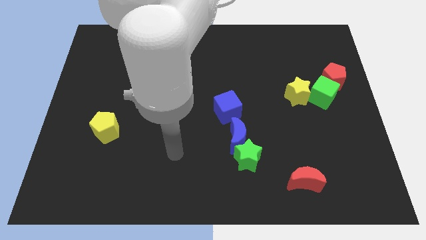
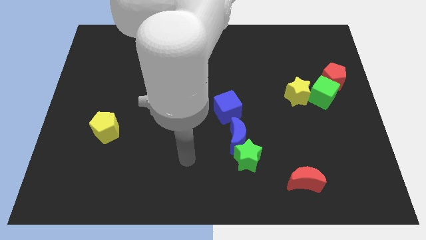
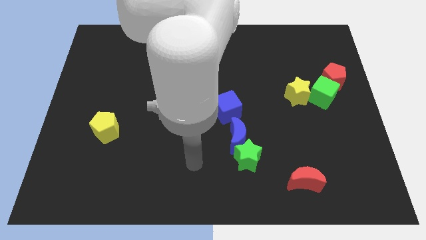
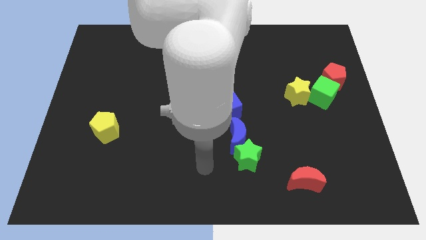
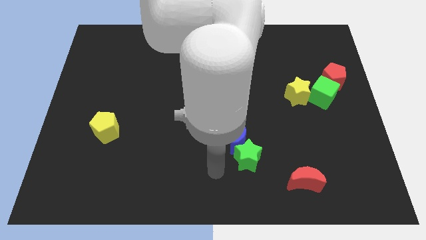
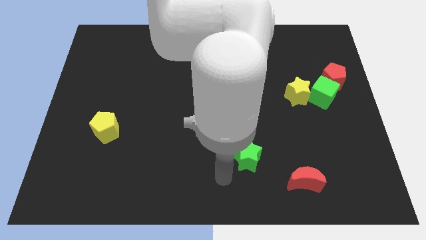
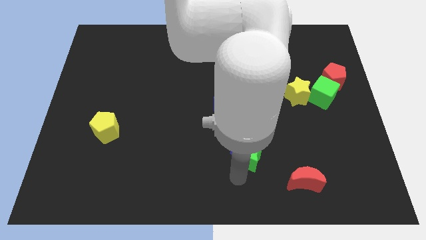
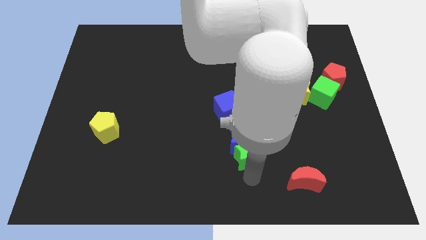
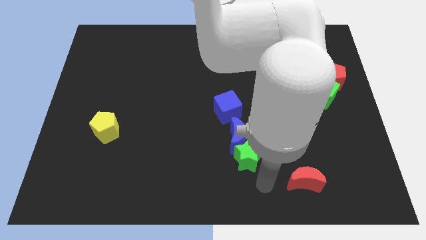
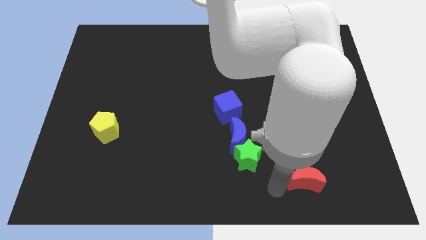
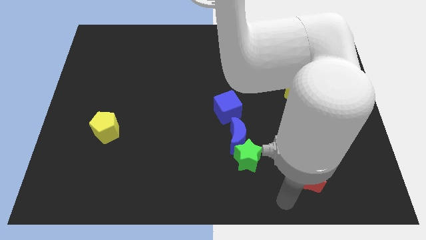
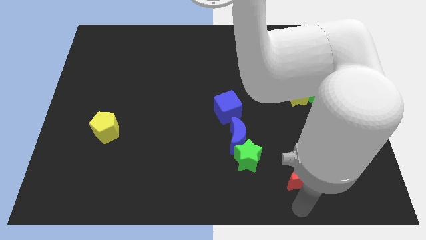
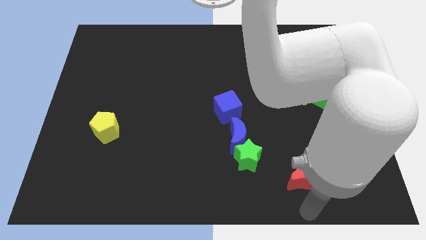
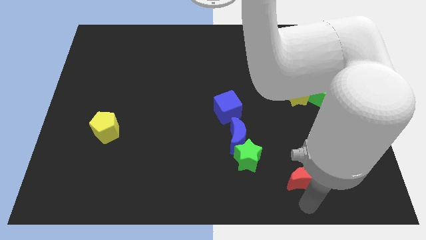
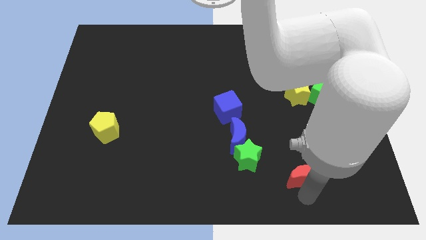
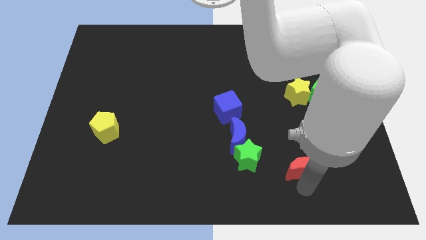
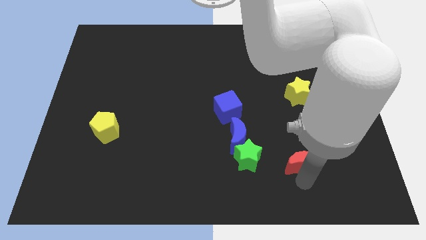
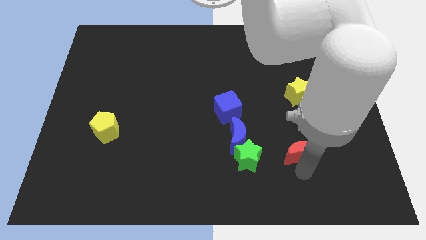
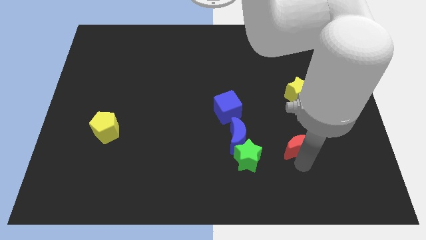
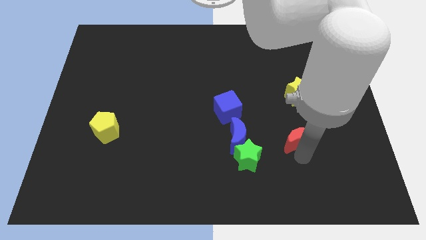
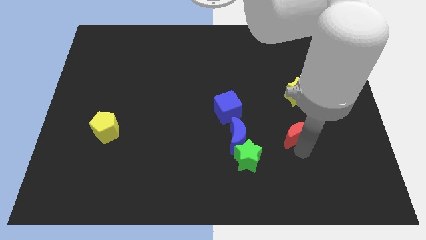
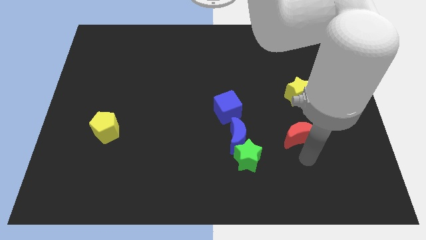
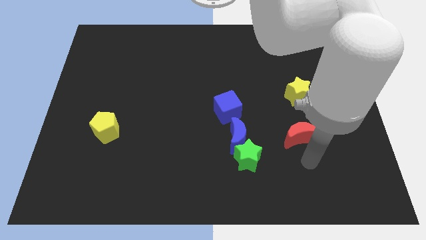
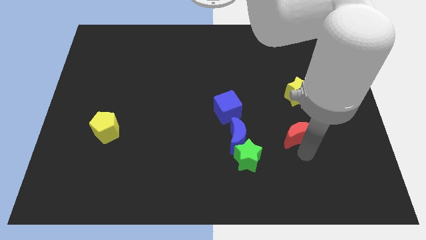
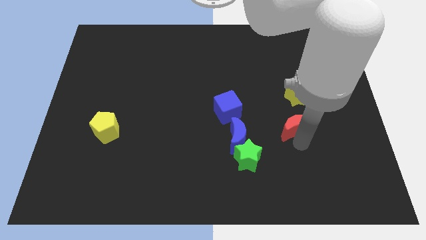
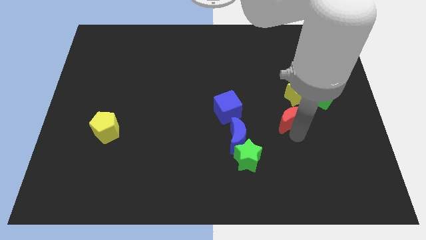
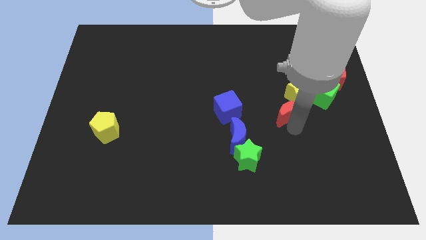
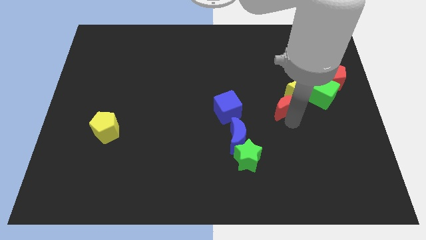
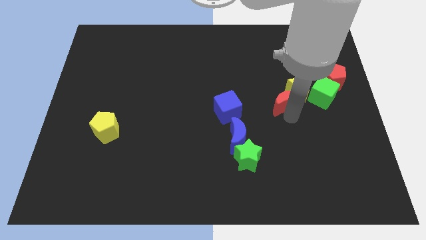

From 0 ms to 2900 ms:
move the red moon up

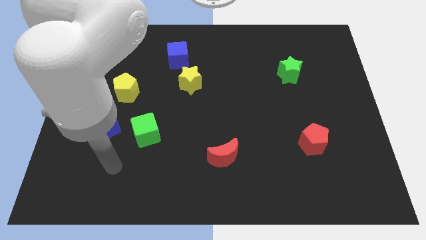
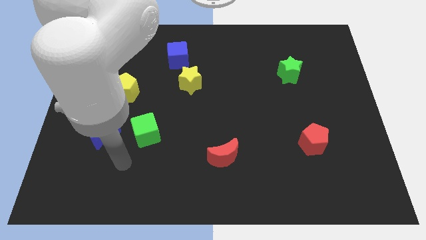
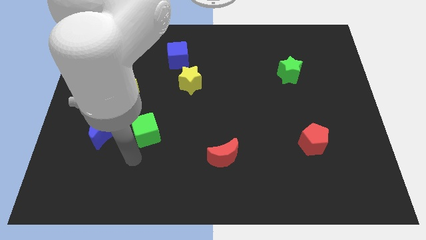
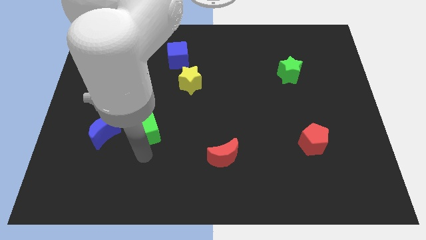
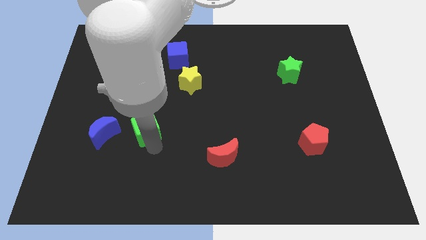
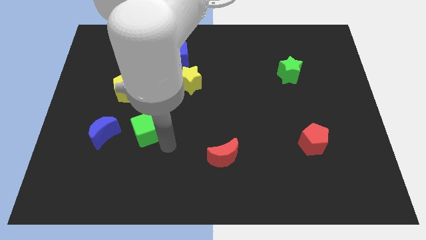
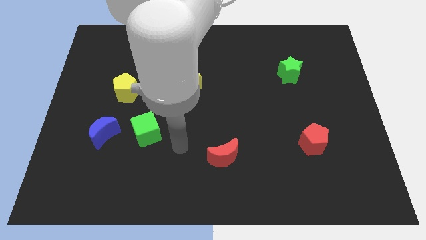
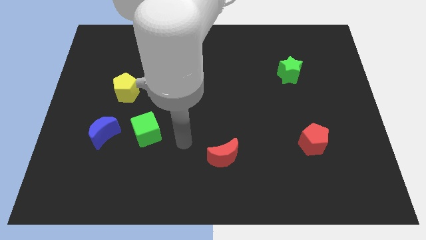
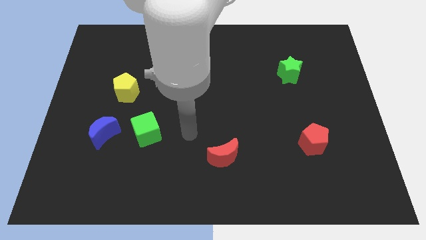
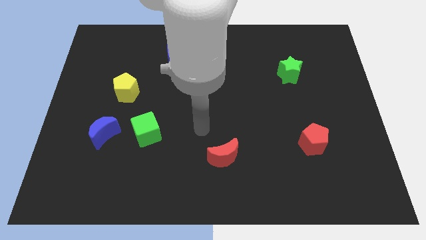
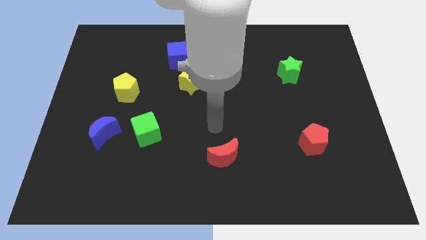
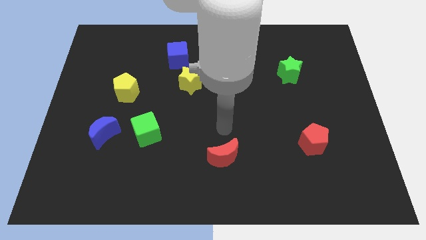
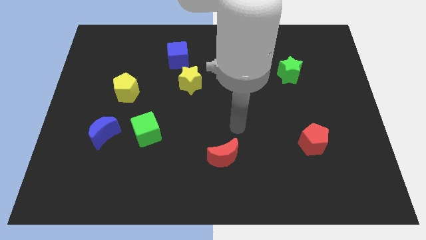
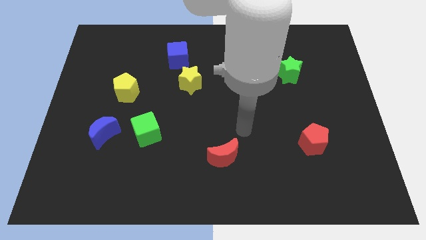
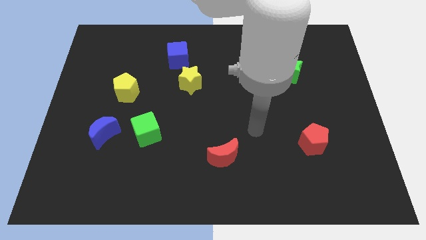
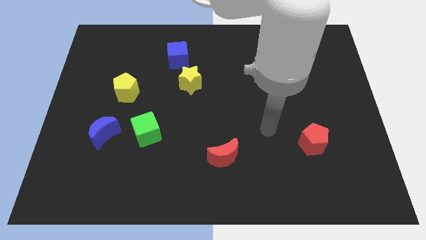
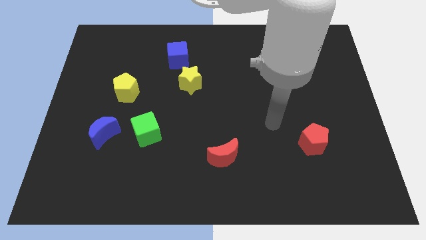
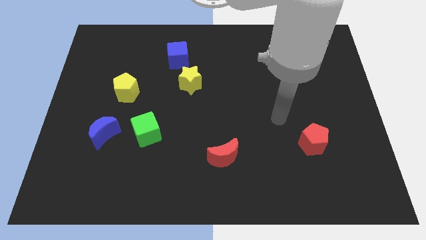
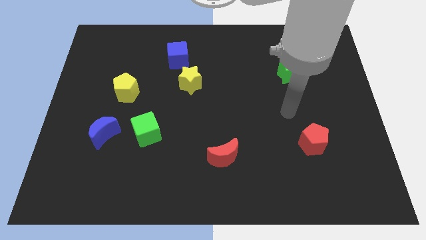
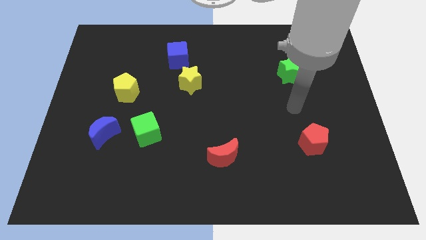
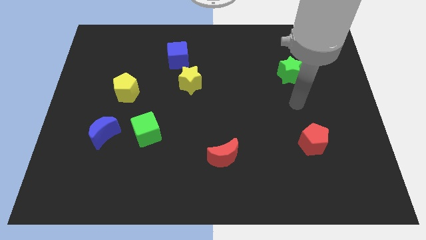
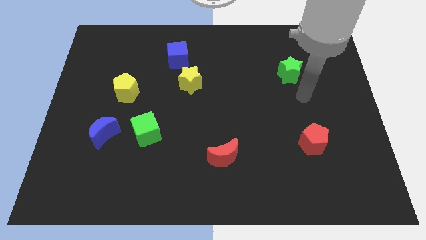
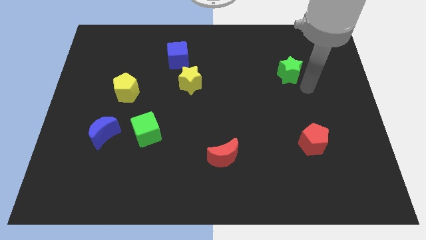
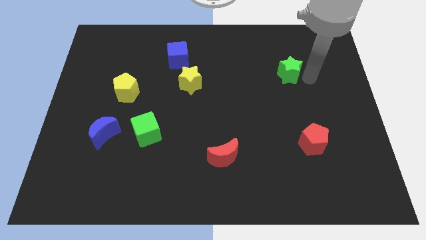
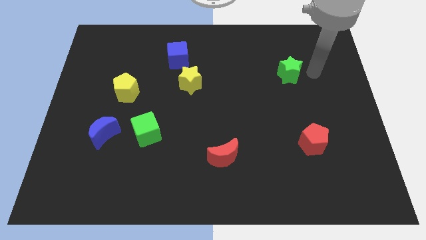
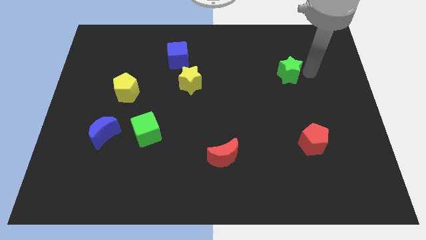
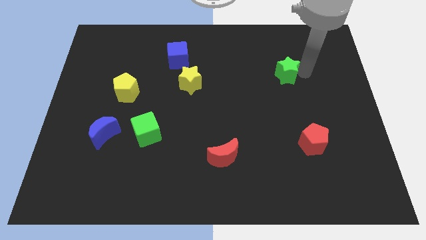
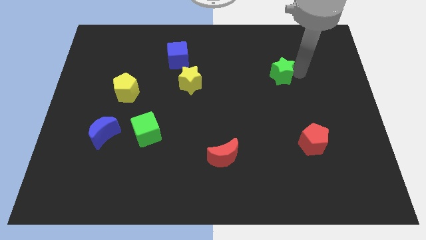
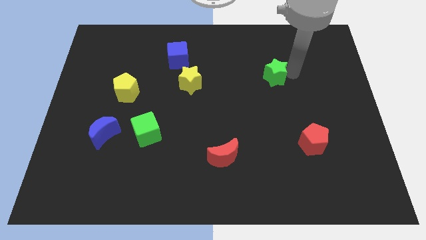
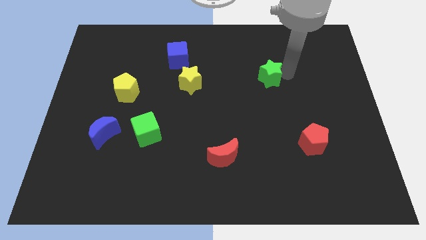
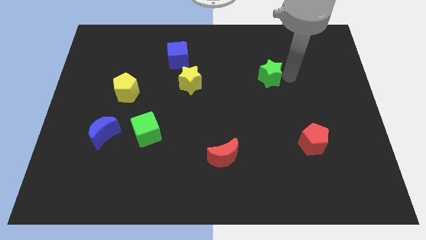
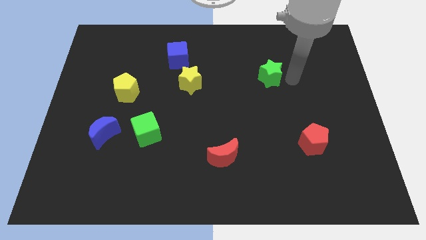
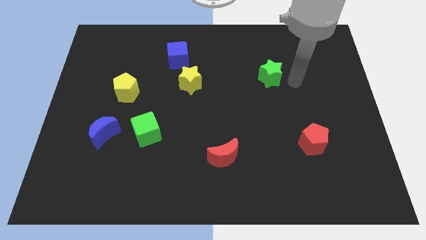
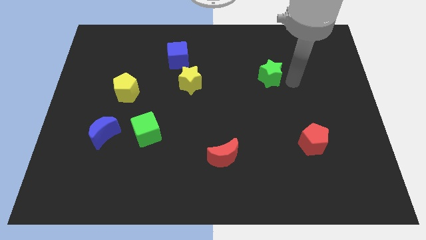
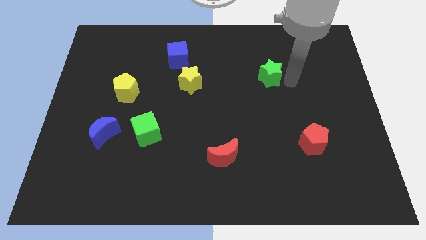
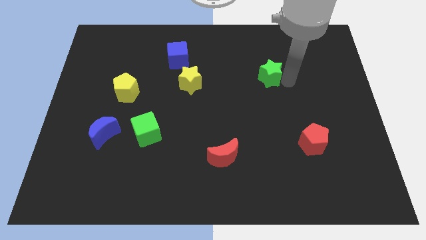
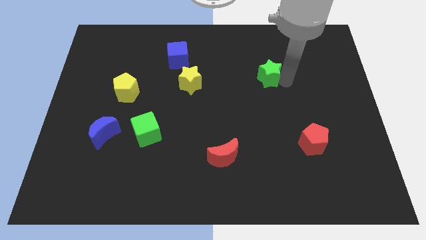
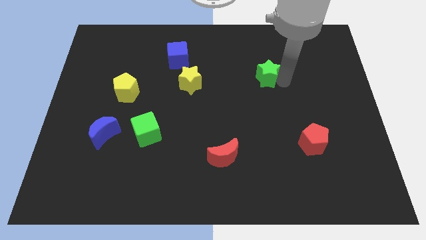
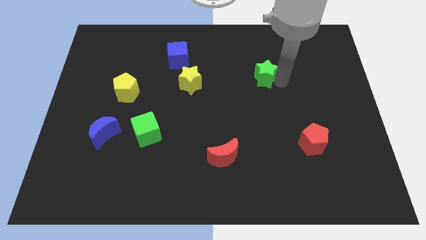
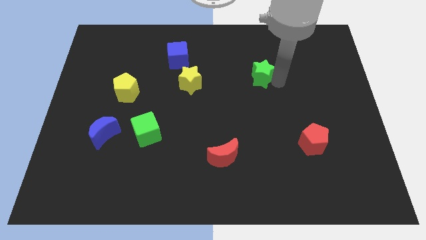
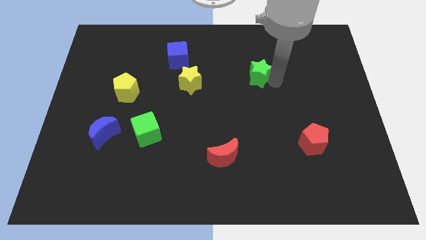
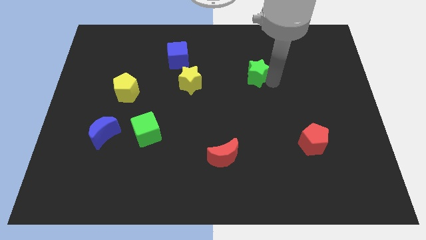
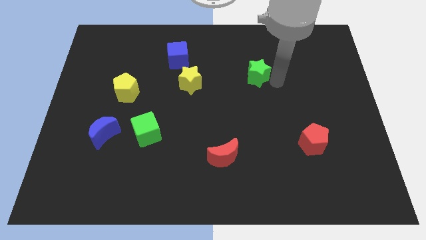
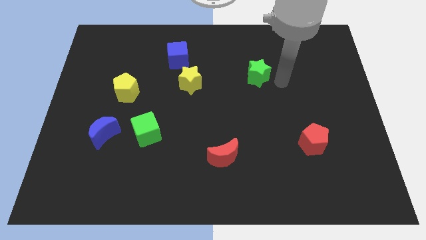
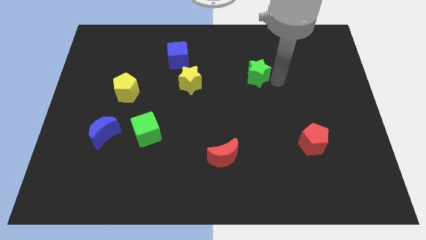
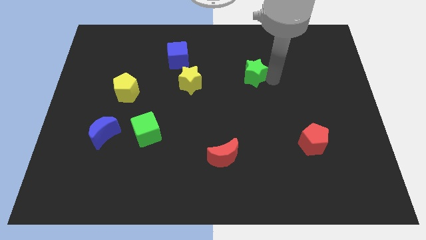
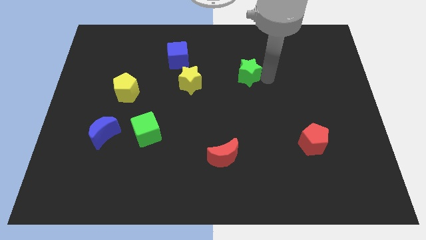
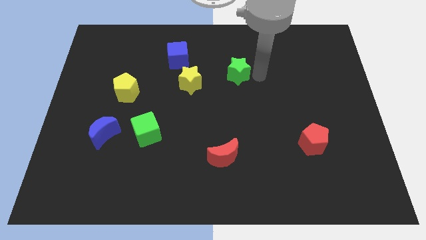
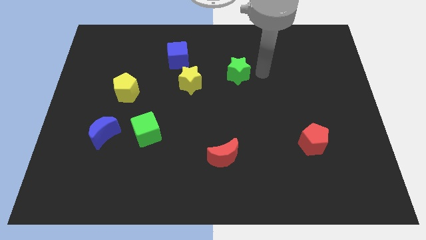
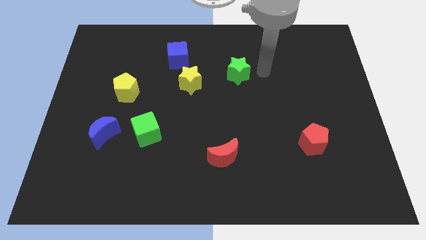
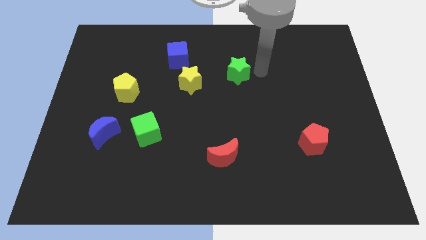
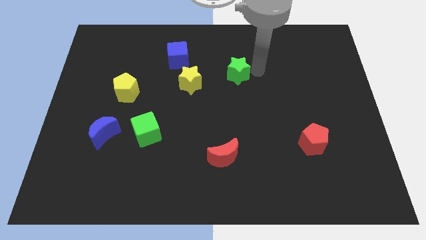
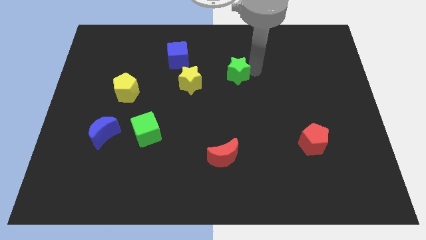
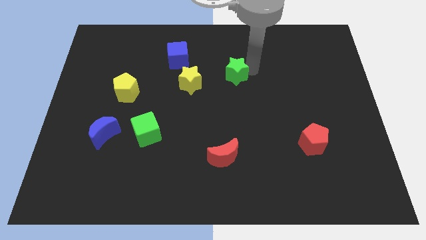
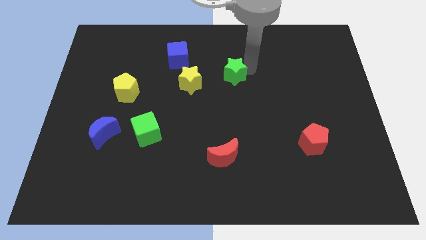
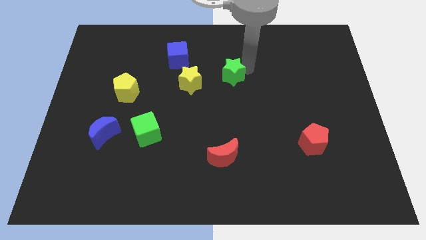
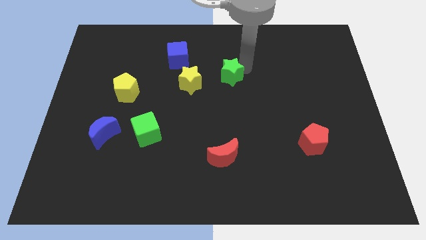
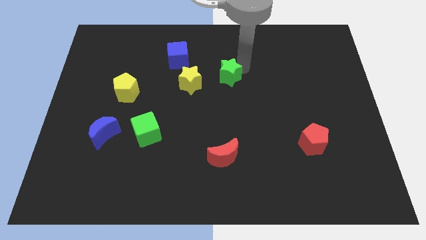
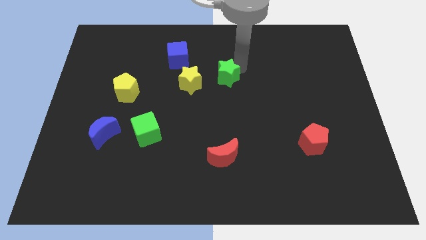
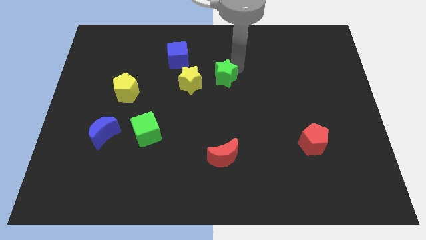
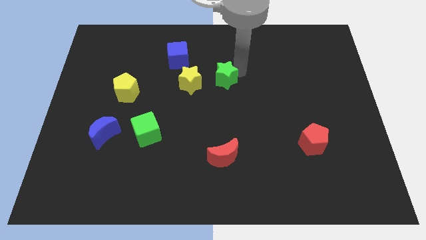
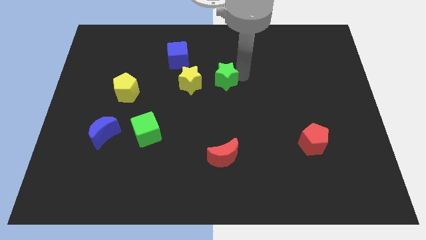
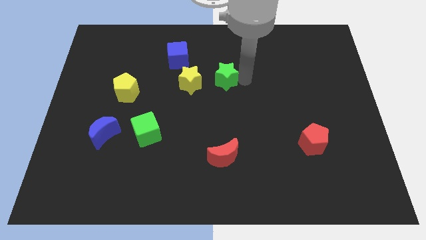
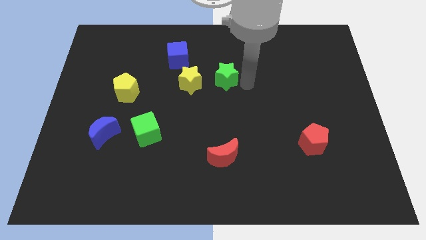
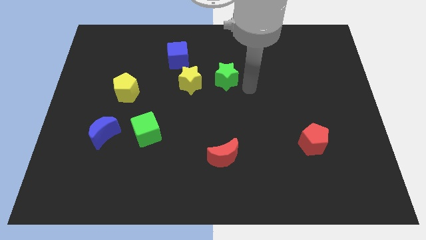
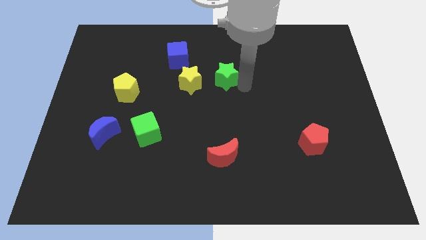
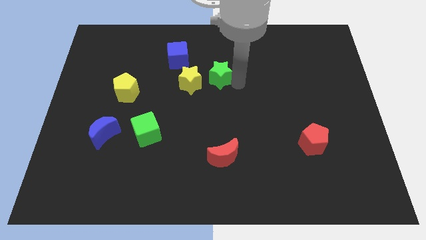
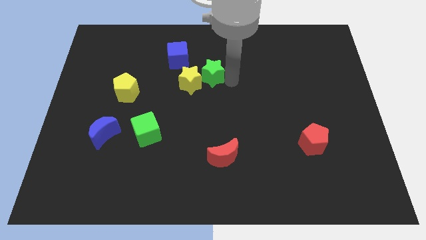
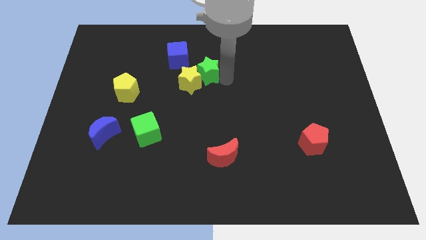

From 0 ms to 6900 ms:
push the green star to the left
